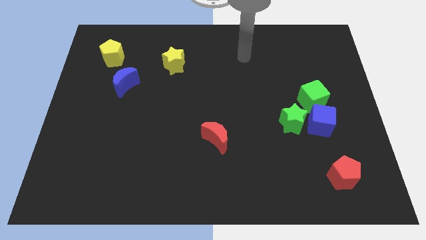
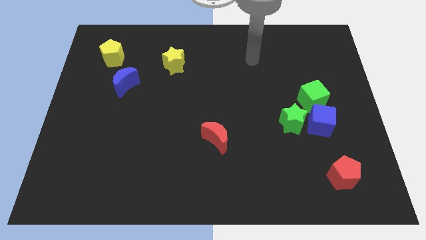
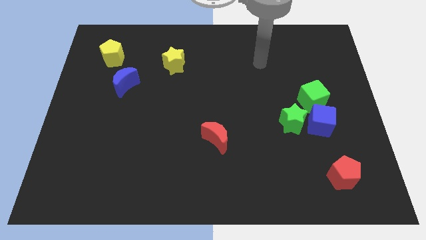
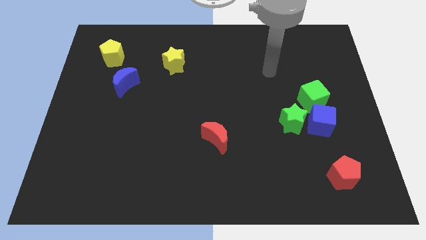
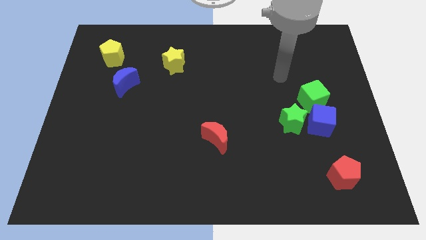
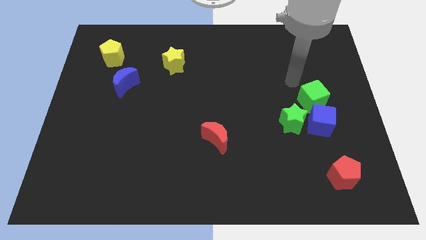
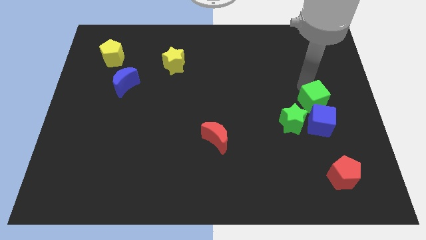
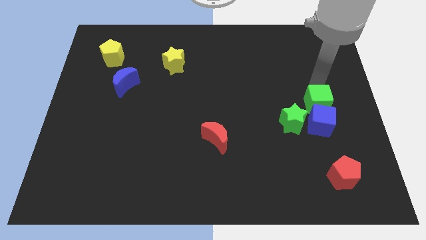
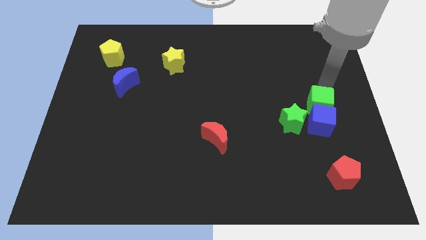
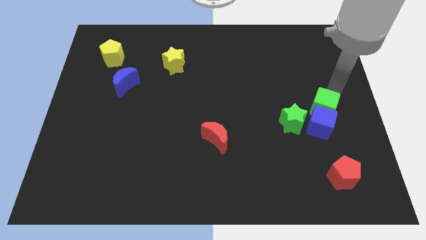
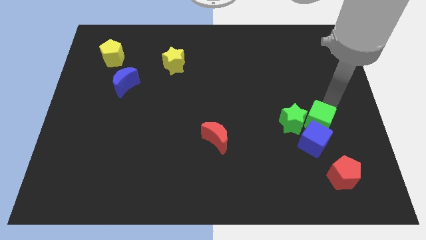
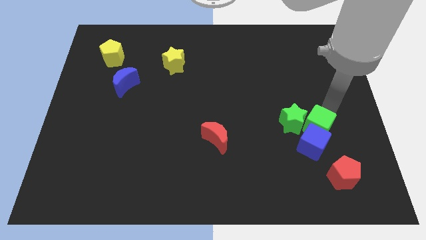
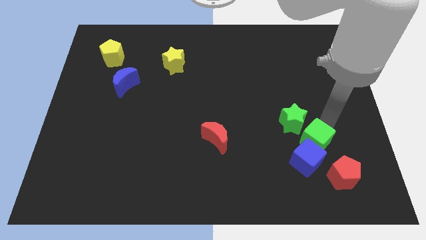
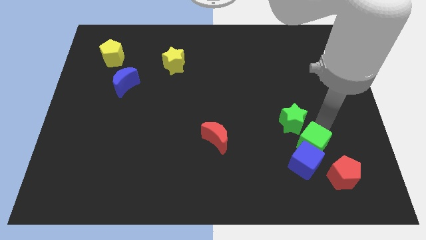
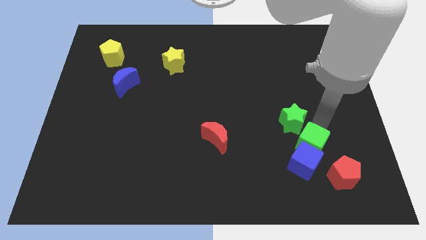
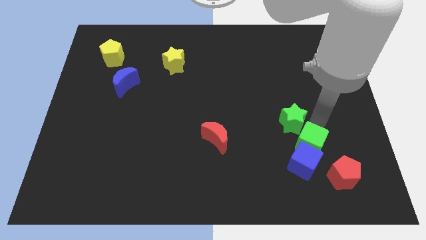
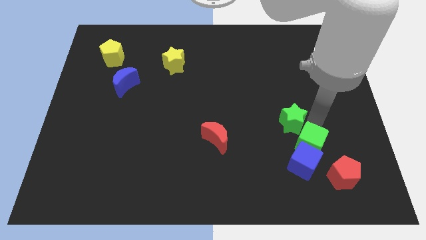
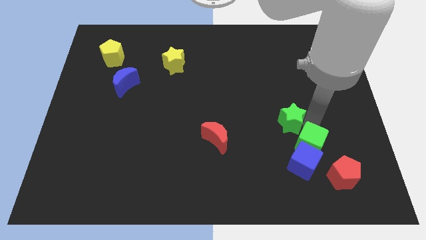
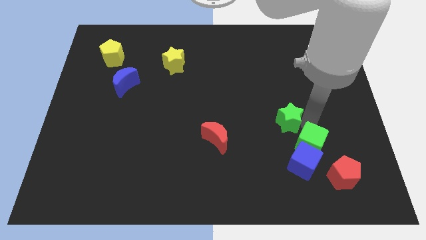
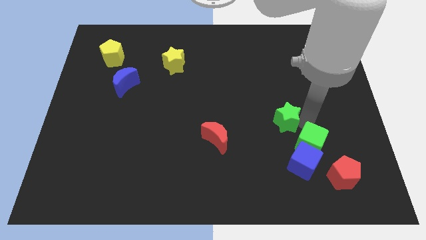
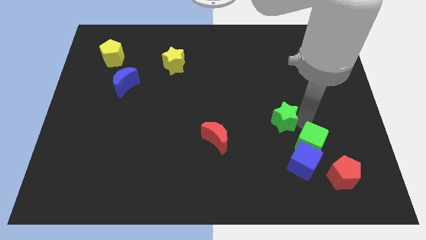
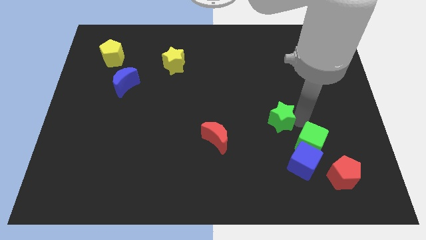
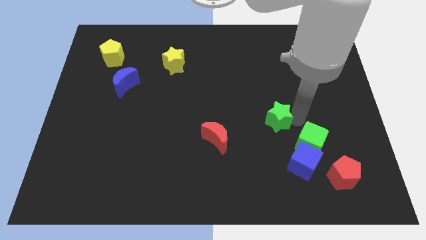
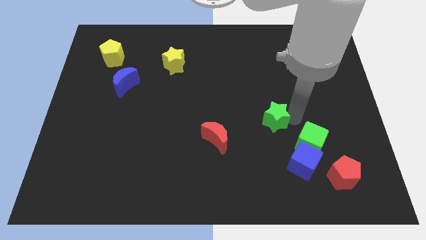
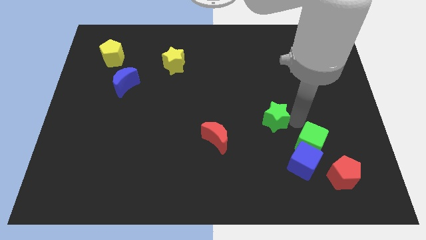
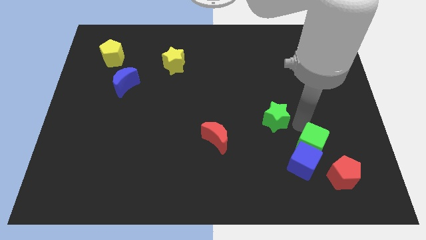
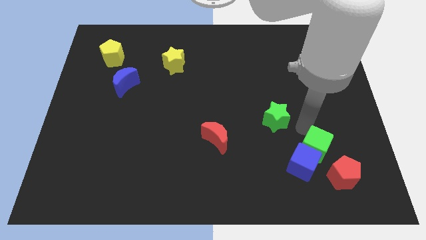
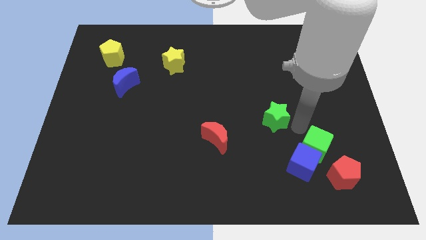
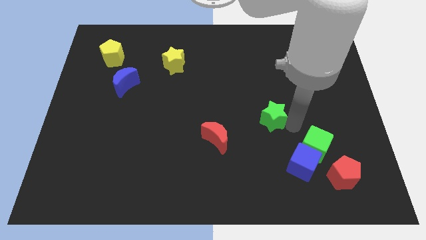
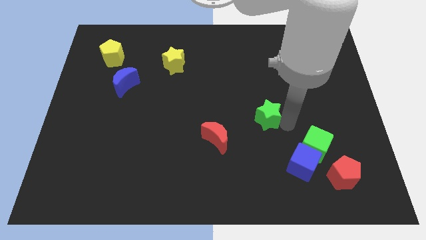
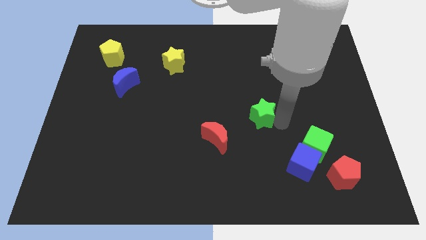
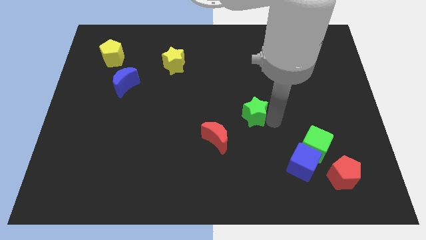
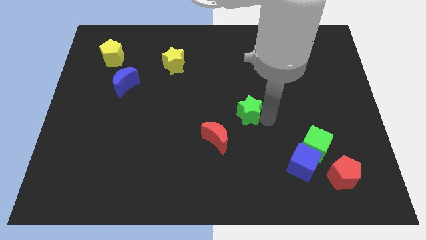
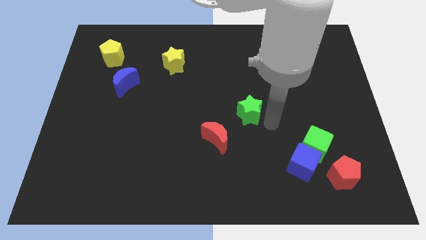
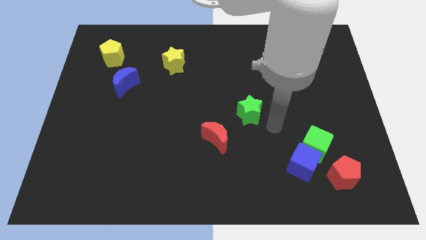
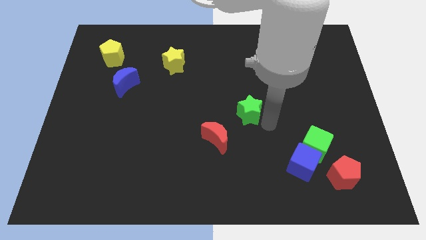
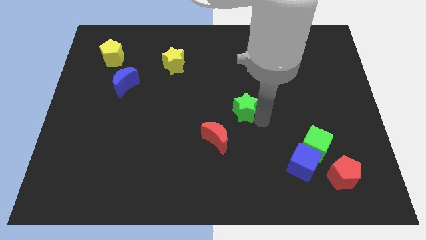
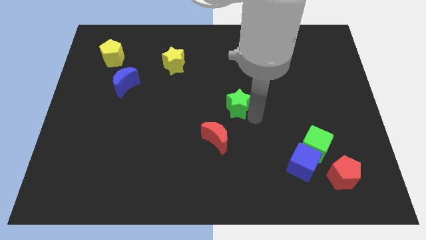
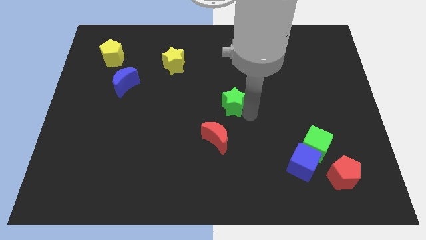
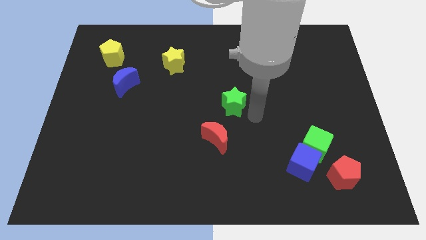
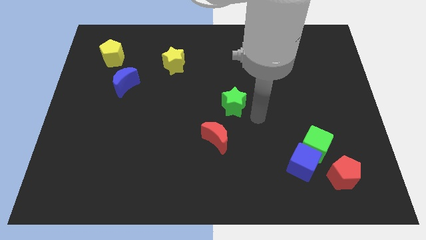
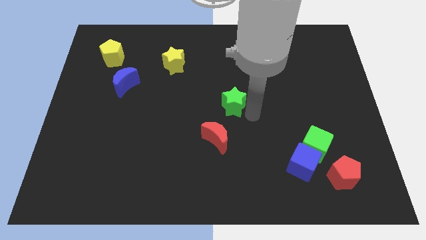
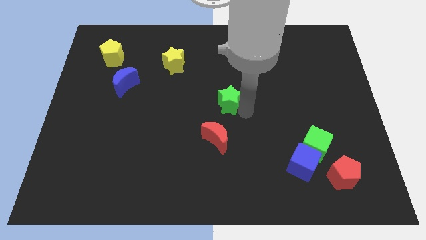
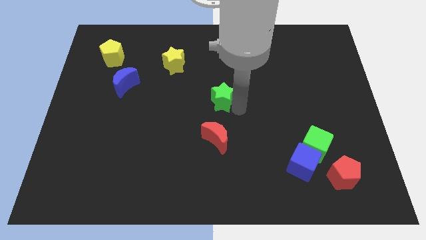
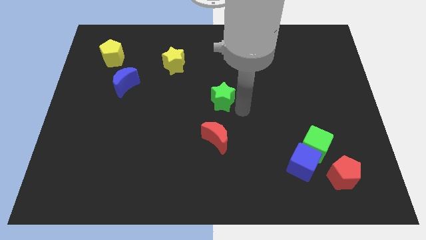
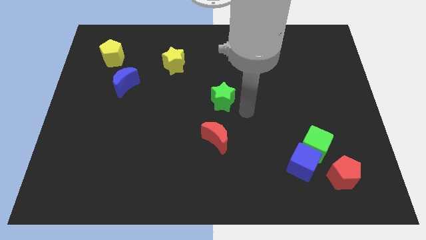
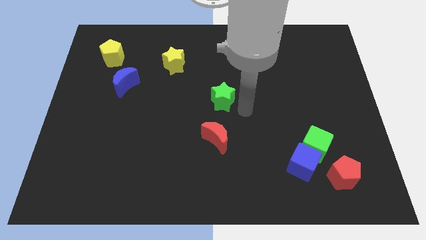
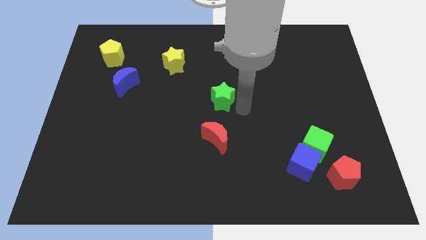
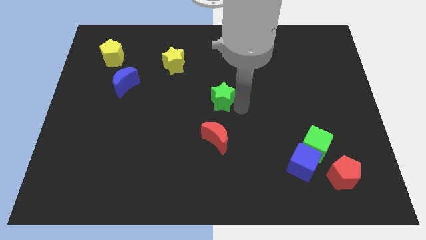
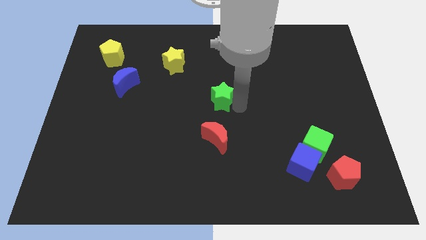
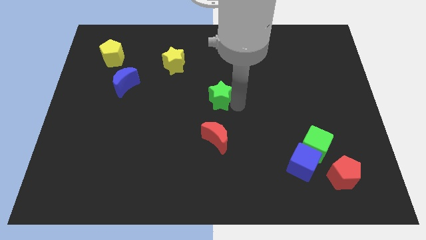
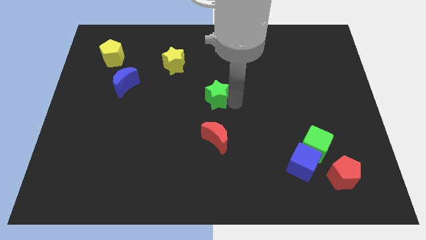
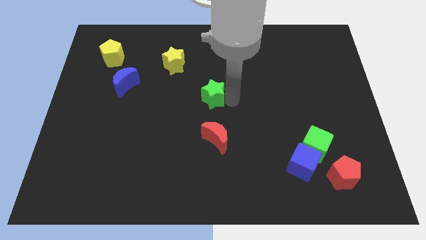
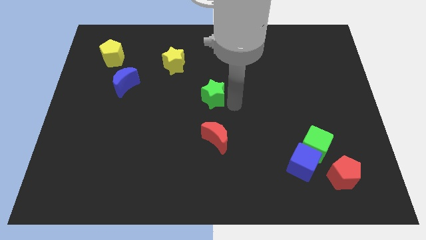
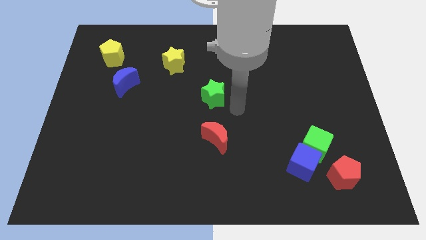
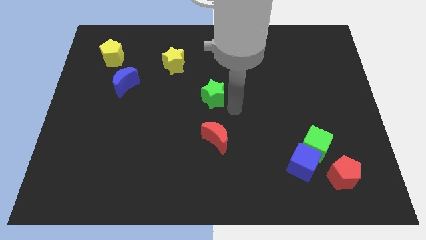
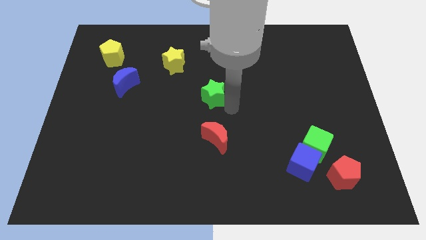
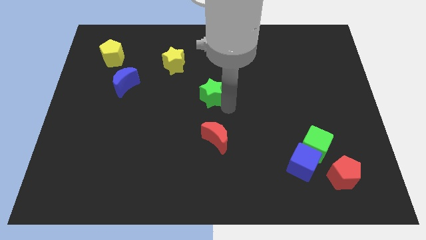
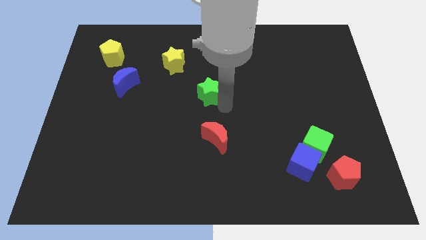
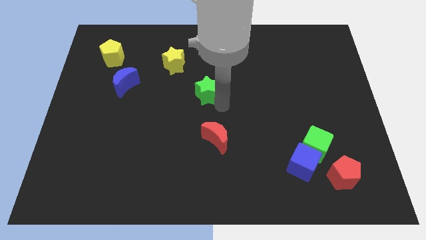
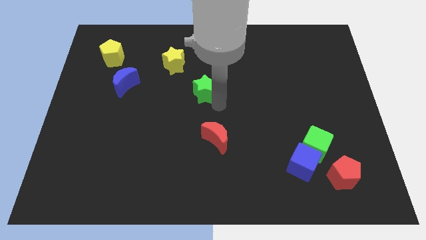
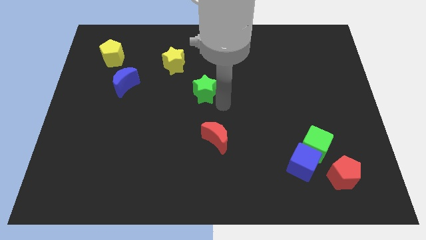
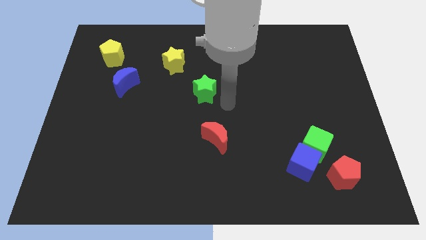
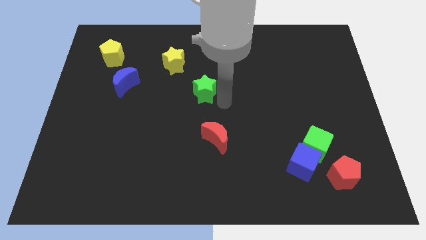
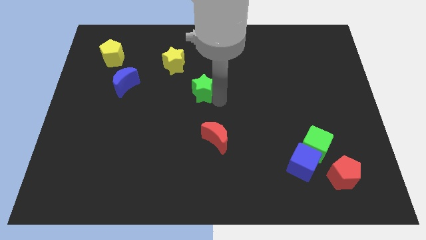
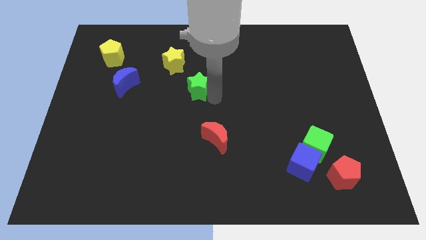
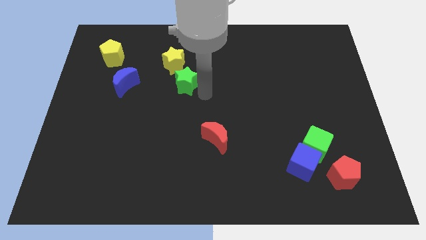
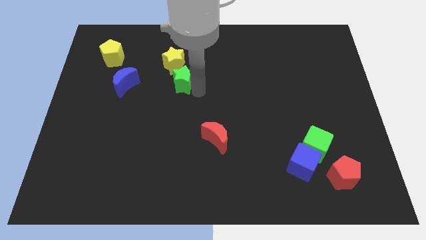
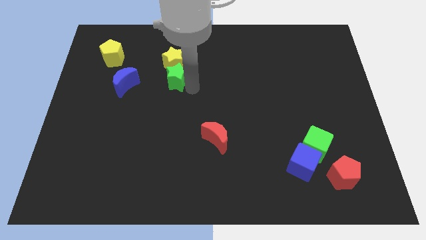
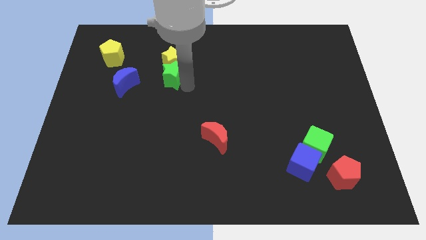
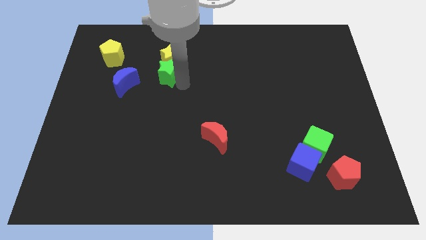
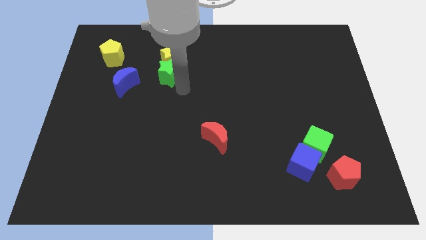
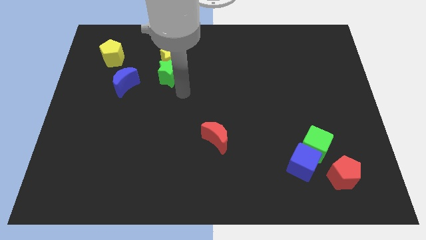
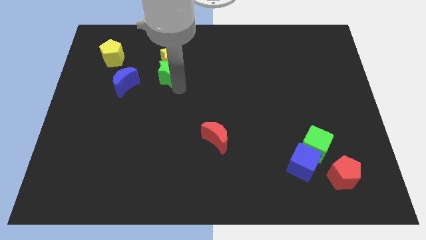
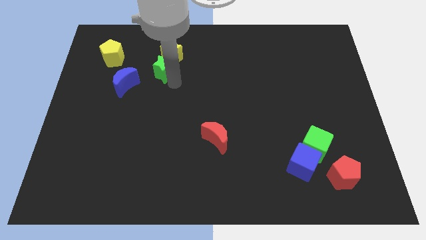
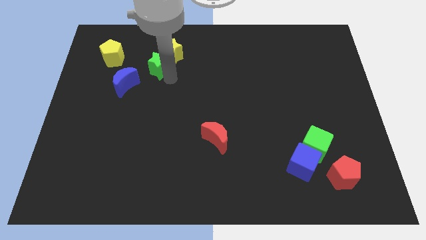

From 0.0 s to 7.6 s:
push the green star to the right side of the yellow pentagon
